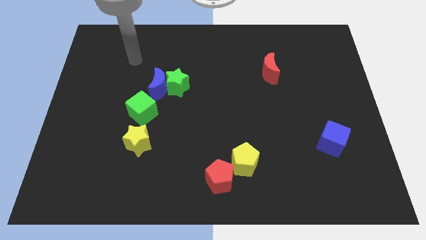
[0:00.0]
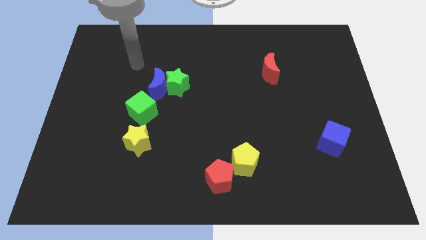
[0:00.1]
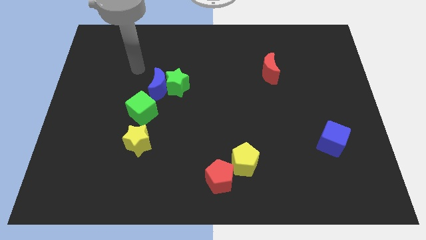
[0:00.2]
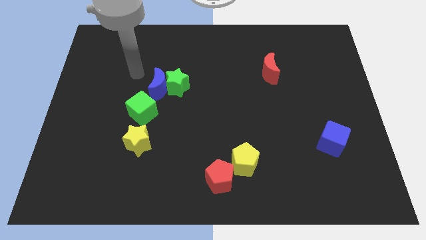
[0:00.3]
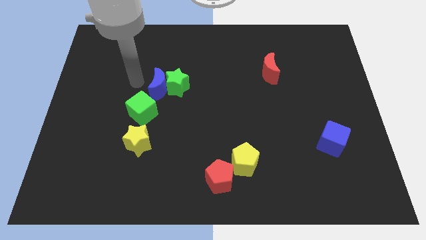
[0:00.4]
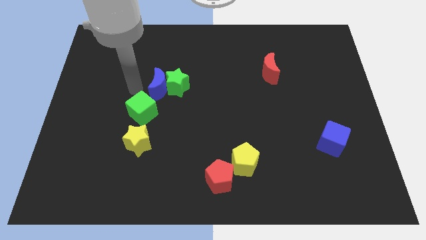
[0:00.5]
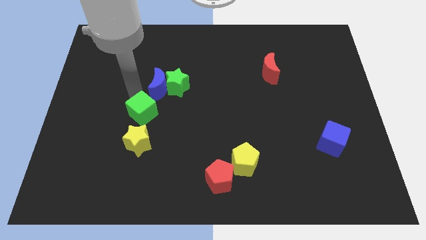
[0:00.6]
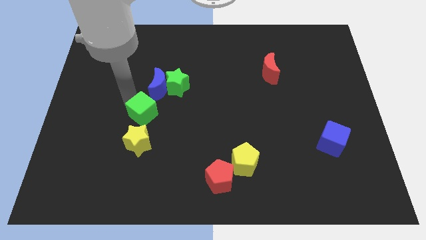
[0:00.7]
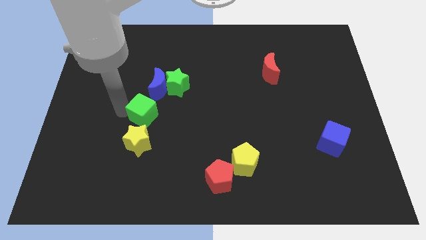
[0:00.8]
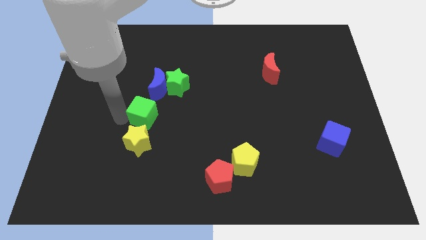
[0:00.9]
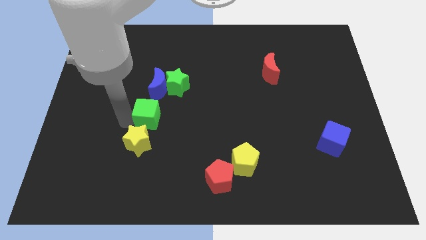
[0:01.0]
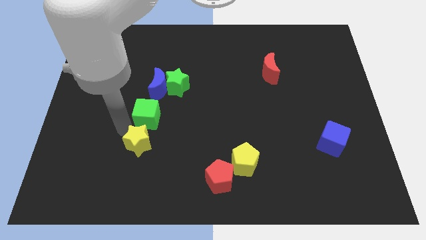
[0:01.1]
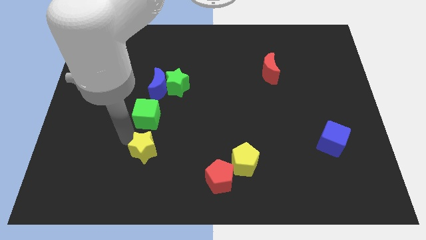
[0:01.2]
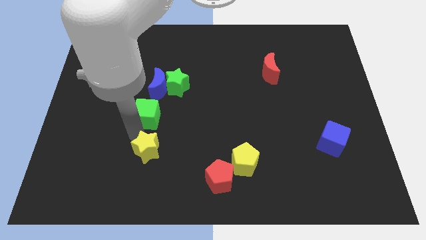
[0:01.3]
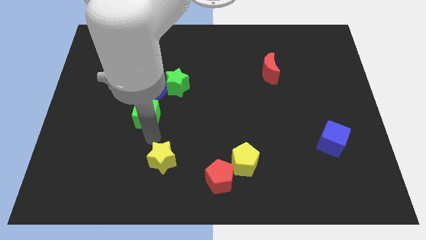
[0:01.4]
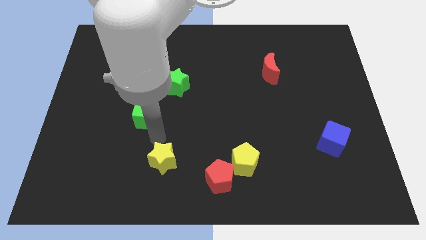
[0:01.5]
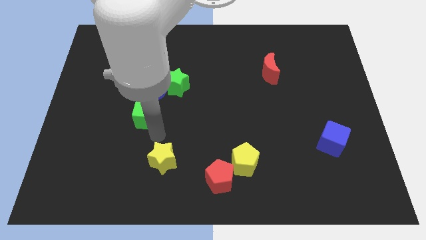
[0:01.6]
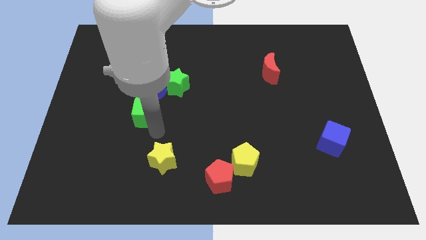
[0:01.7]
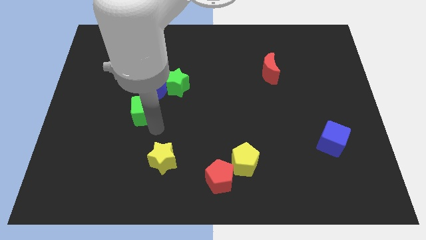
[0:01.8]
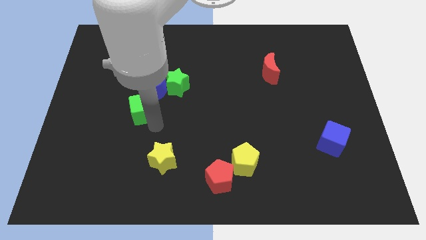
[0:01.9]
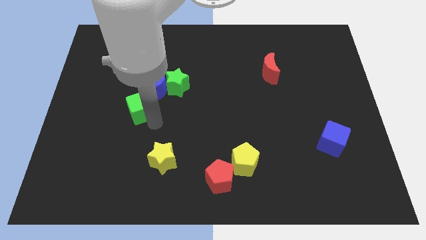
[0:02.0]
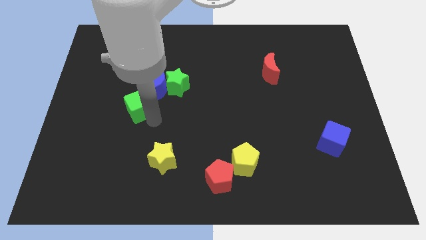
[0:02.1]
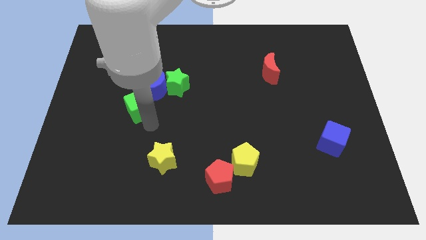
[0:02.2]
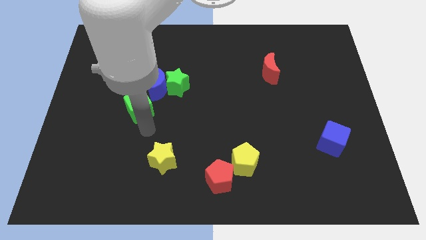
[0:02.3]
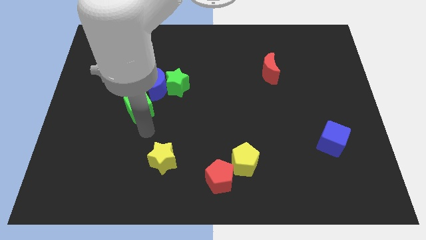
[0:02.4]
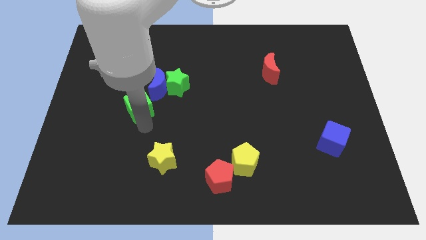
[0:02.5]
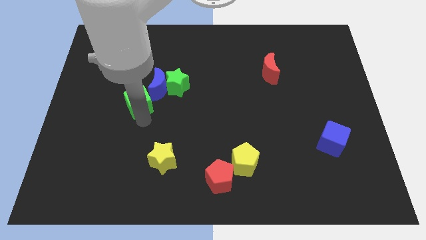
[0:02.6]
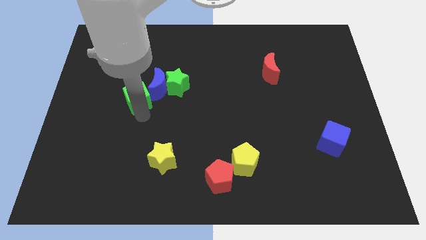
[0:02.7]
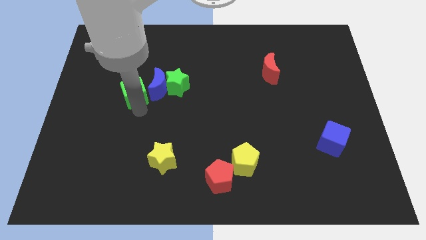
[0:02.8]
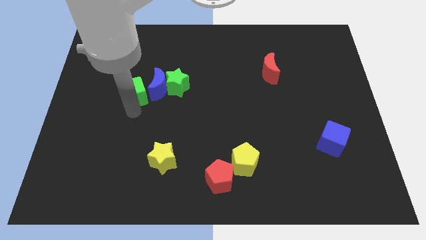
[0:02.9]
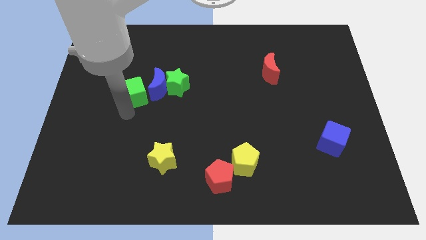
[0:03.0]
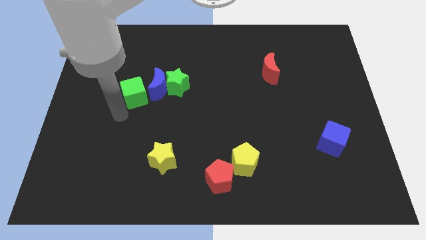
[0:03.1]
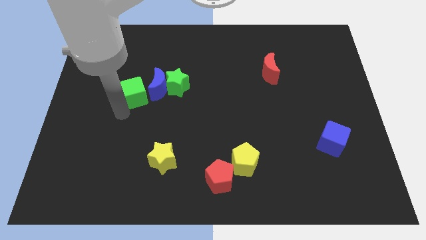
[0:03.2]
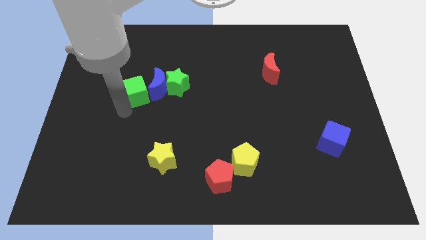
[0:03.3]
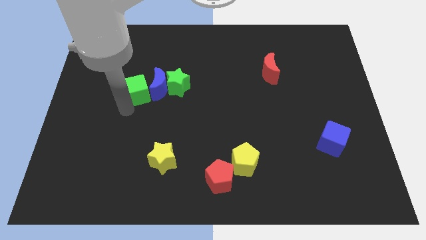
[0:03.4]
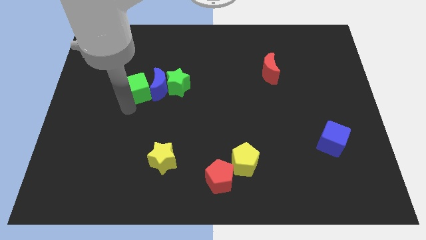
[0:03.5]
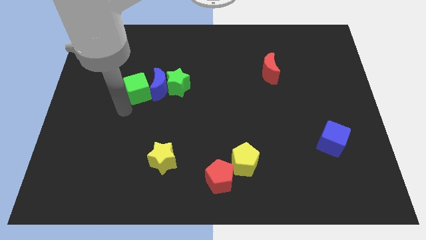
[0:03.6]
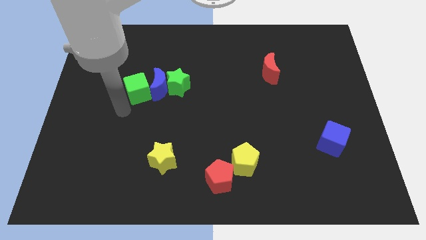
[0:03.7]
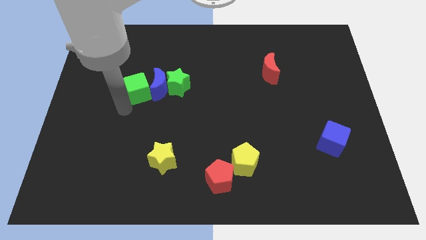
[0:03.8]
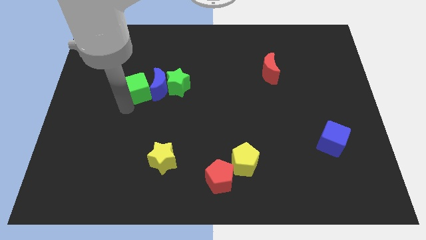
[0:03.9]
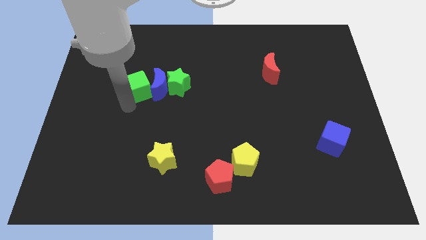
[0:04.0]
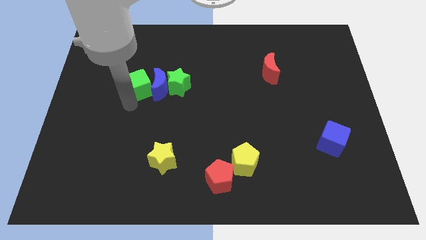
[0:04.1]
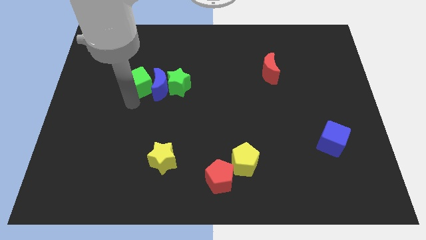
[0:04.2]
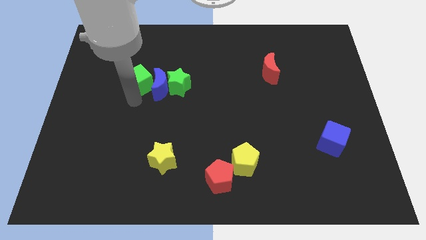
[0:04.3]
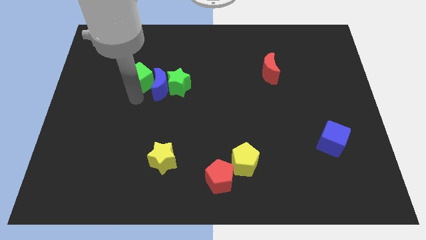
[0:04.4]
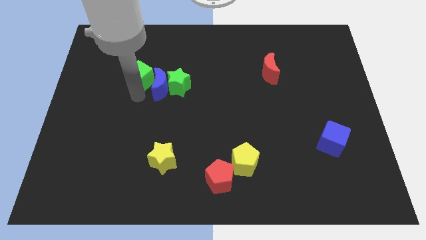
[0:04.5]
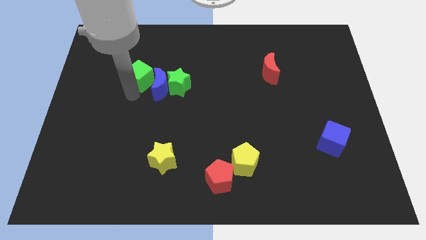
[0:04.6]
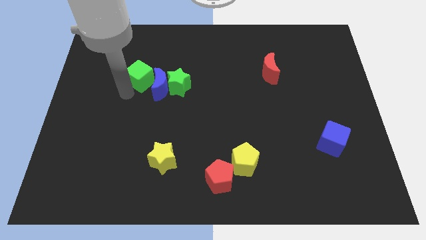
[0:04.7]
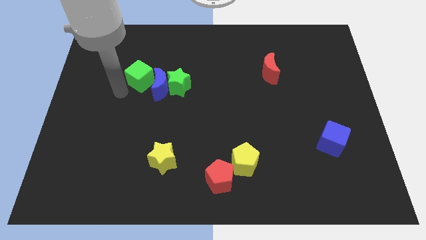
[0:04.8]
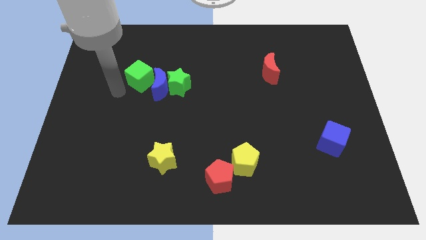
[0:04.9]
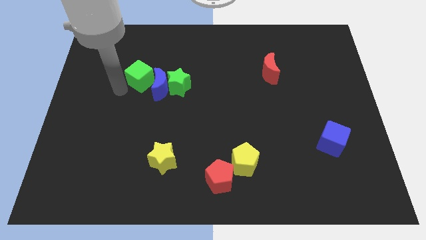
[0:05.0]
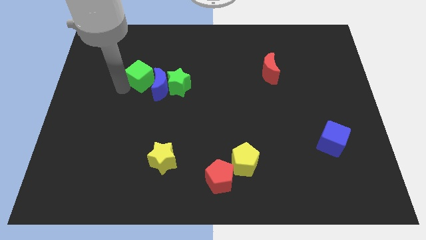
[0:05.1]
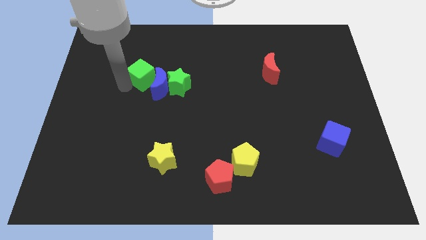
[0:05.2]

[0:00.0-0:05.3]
slide the green cube diagonally up and to the left of the green star

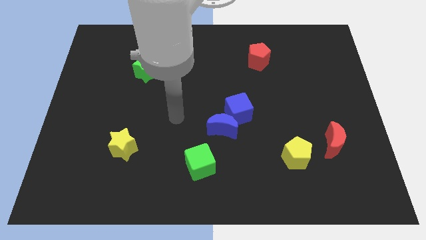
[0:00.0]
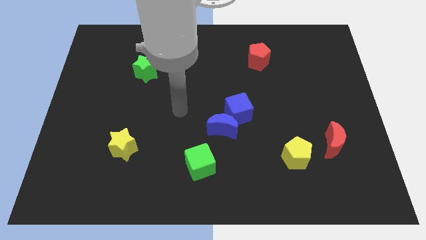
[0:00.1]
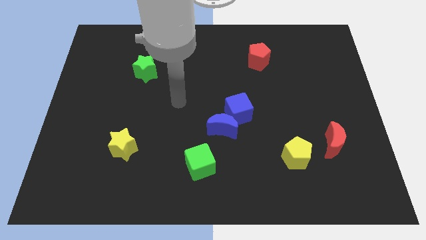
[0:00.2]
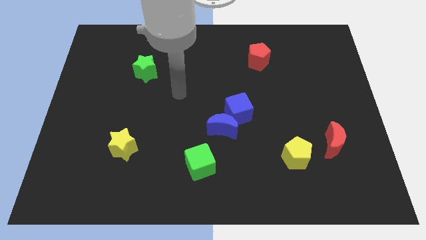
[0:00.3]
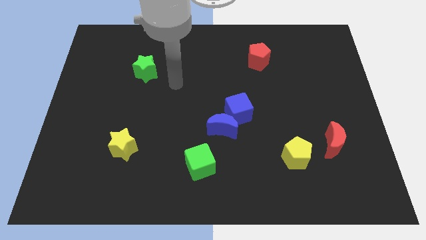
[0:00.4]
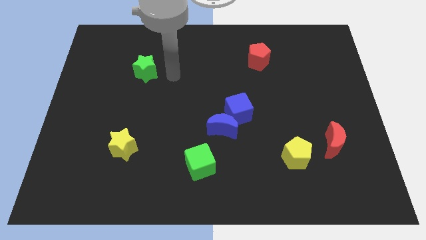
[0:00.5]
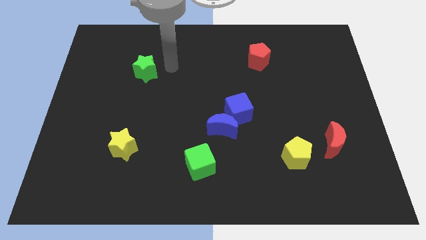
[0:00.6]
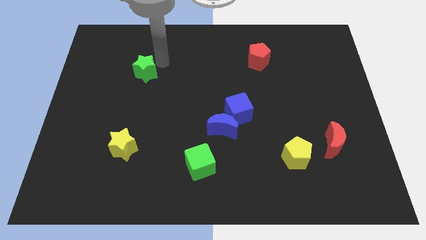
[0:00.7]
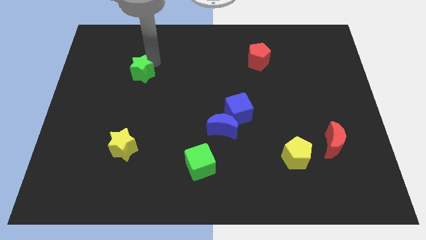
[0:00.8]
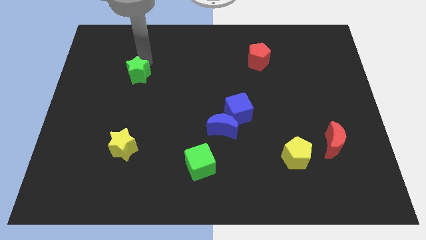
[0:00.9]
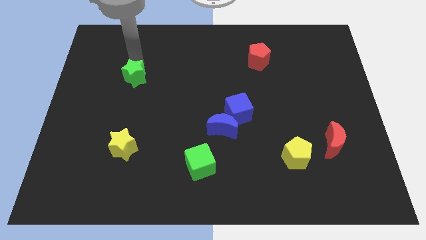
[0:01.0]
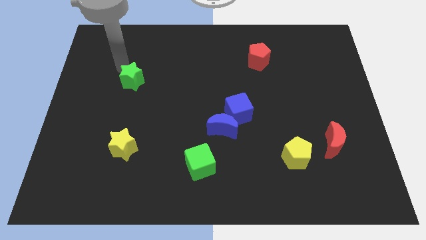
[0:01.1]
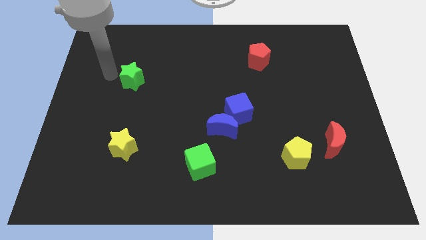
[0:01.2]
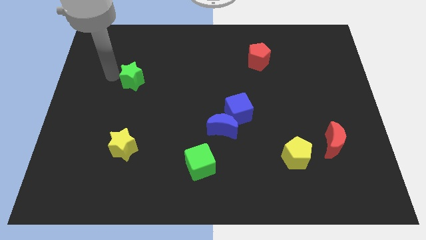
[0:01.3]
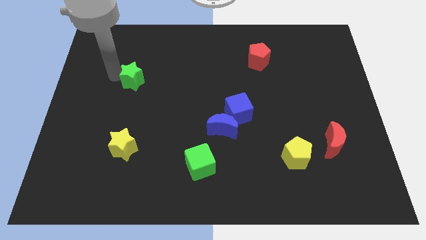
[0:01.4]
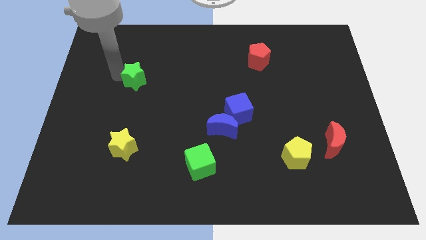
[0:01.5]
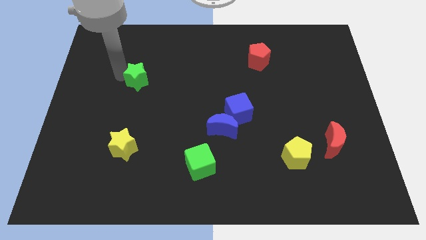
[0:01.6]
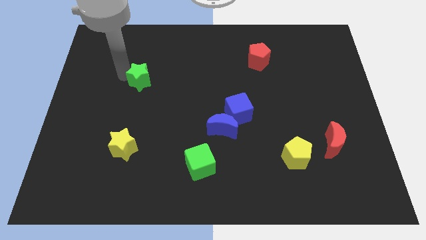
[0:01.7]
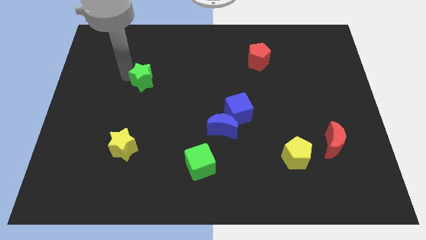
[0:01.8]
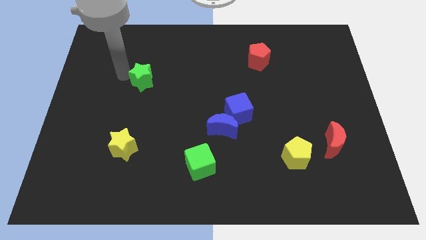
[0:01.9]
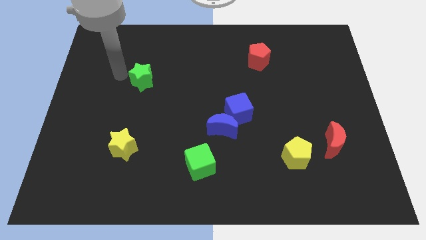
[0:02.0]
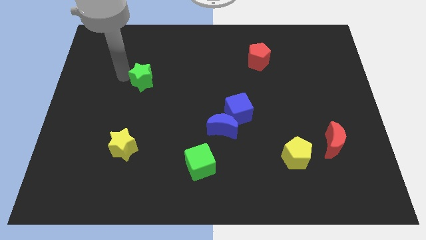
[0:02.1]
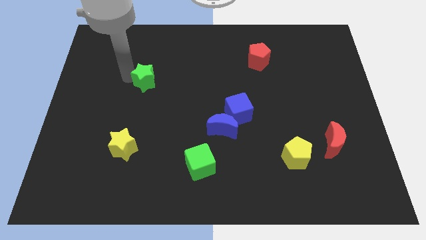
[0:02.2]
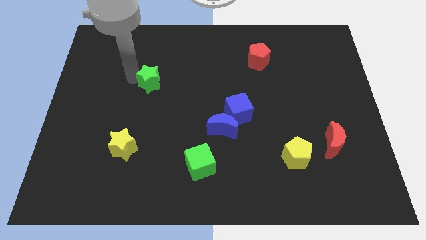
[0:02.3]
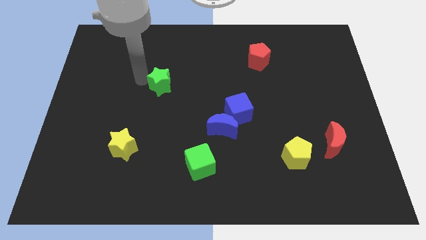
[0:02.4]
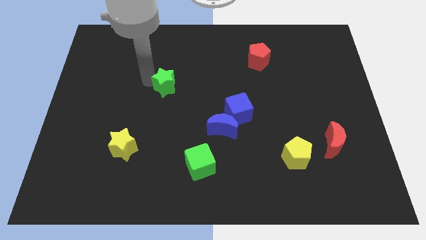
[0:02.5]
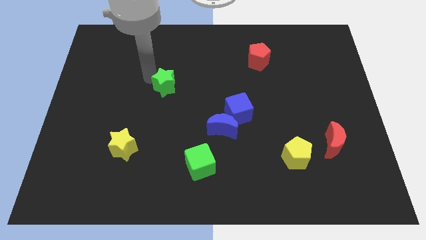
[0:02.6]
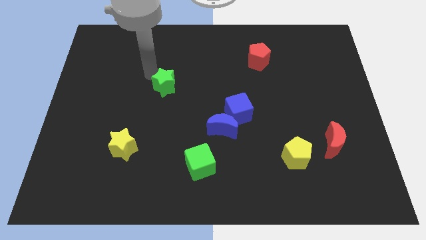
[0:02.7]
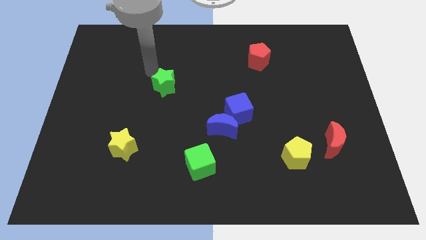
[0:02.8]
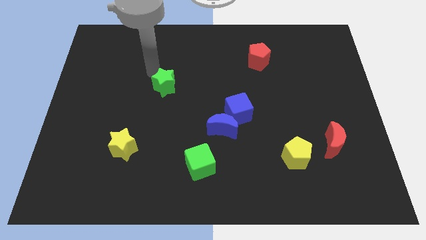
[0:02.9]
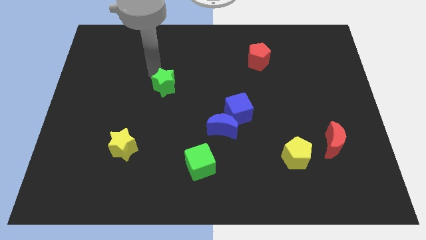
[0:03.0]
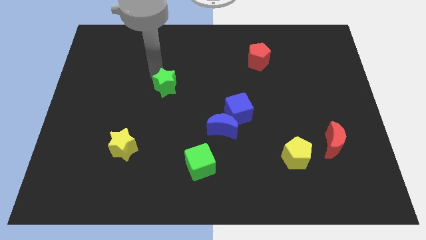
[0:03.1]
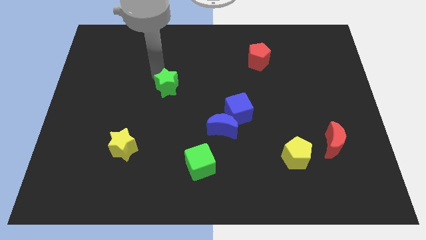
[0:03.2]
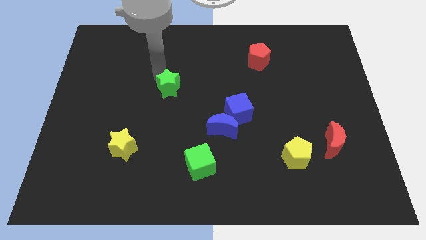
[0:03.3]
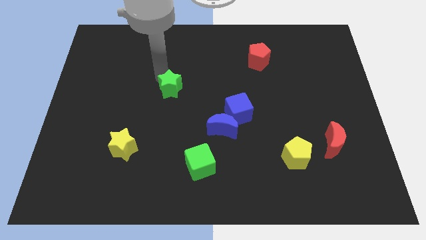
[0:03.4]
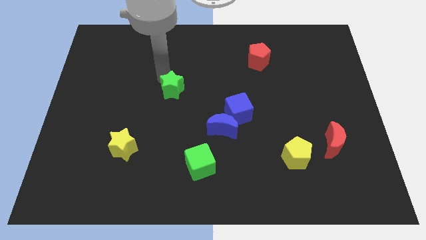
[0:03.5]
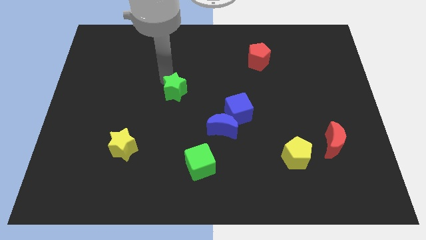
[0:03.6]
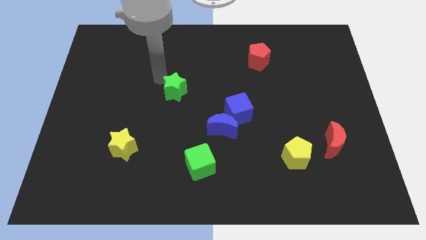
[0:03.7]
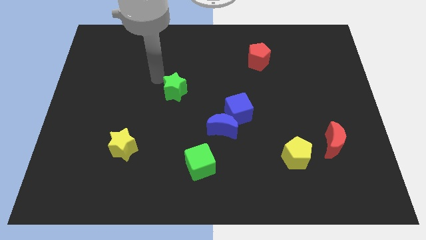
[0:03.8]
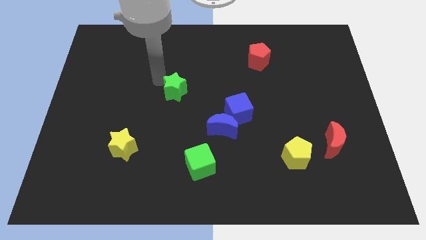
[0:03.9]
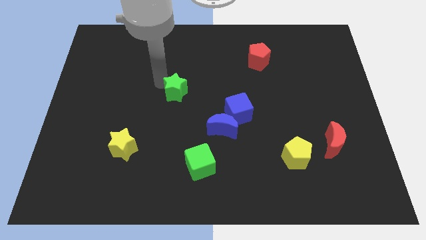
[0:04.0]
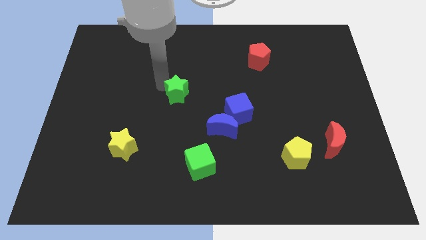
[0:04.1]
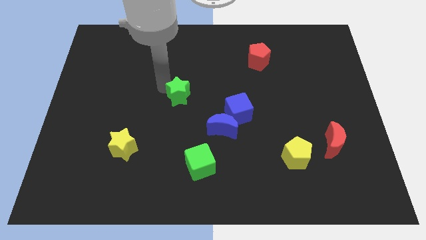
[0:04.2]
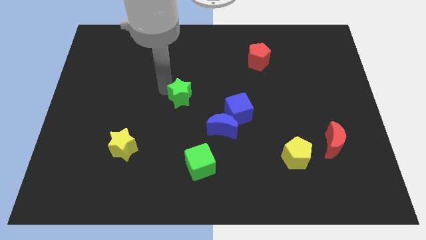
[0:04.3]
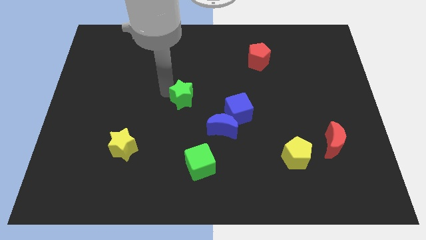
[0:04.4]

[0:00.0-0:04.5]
slide the green star diagonally up and to the left of the blue moon
